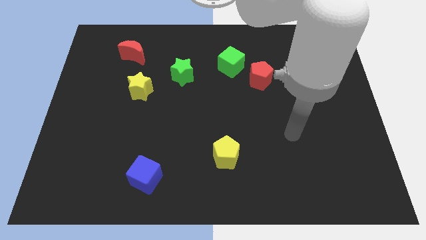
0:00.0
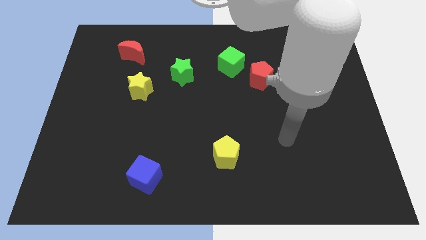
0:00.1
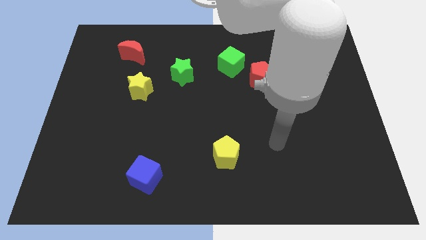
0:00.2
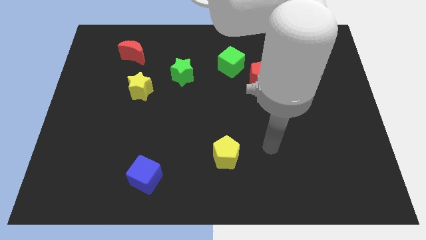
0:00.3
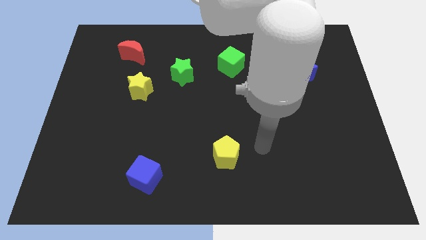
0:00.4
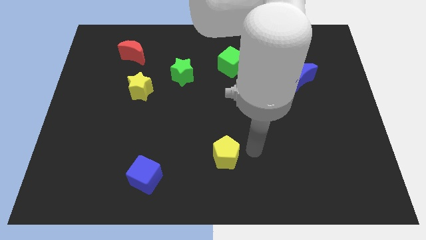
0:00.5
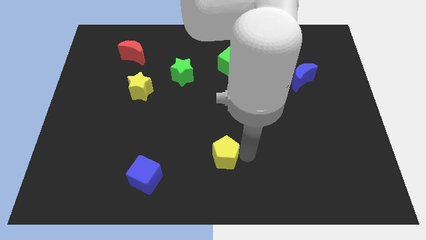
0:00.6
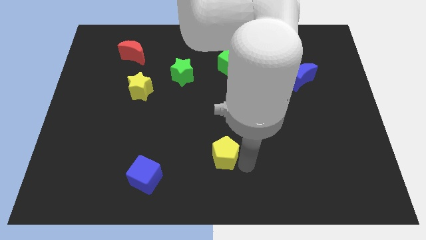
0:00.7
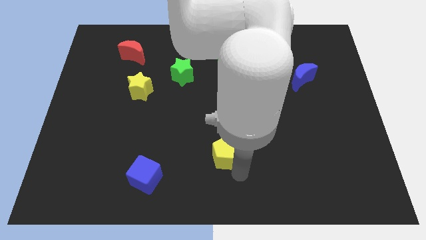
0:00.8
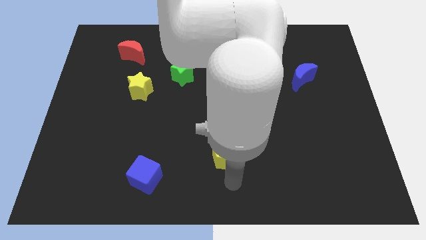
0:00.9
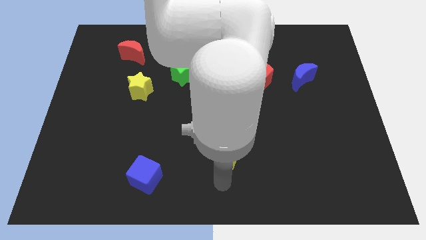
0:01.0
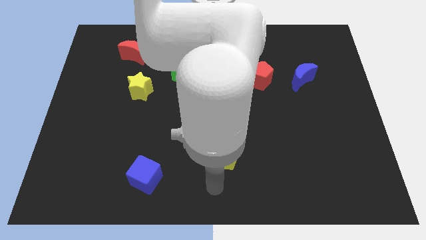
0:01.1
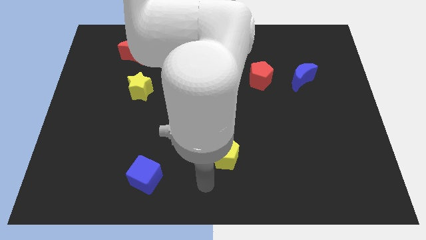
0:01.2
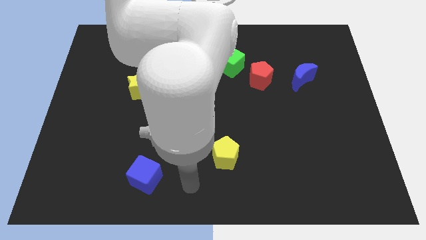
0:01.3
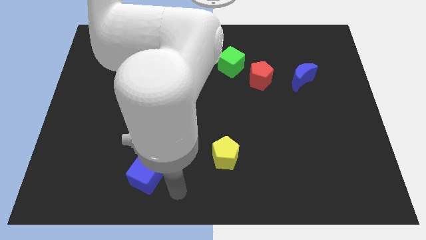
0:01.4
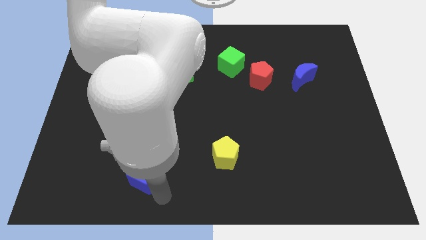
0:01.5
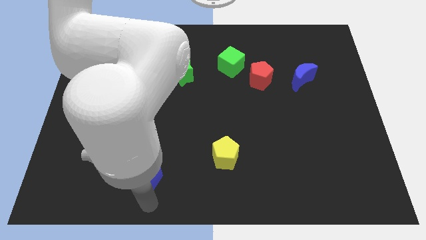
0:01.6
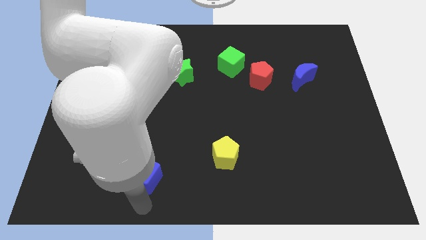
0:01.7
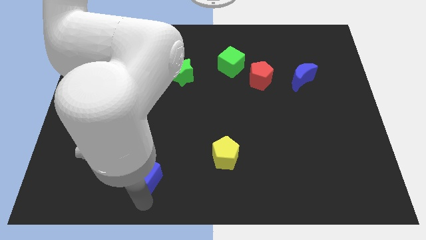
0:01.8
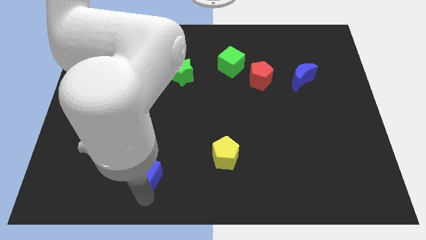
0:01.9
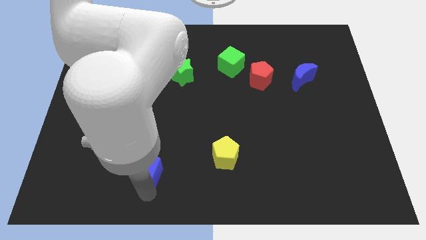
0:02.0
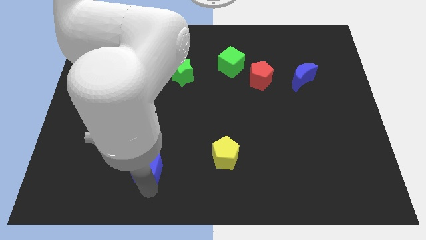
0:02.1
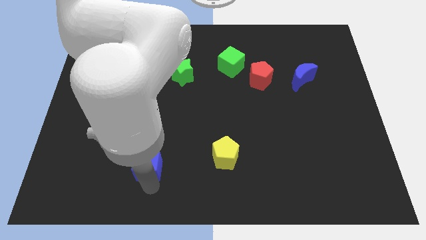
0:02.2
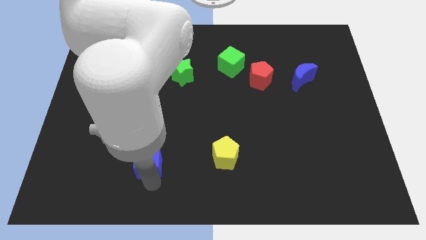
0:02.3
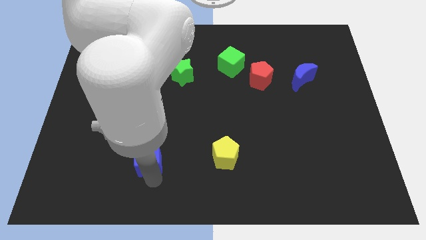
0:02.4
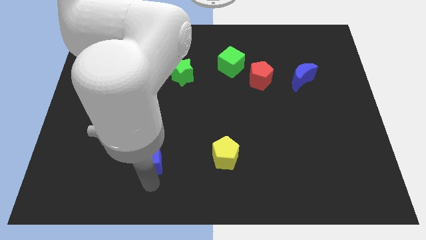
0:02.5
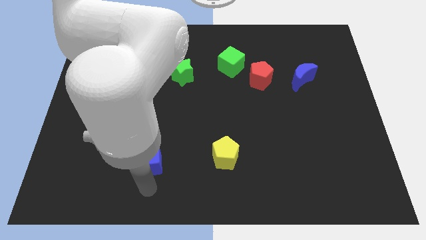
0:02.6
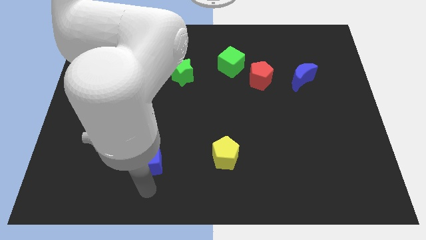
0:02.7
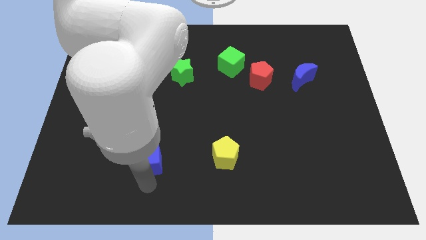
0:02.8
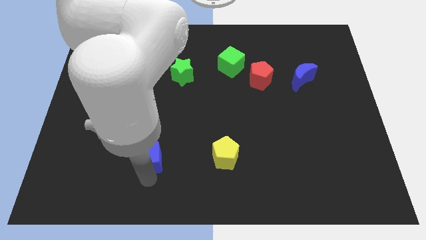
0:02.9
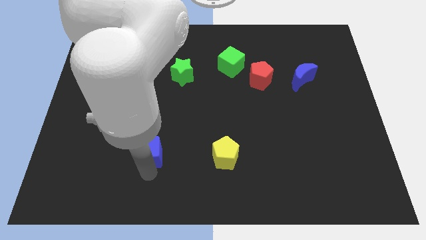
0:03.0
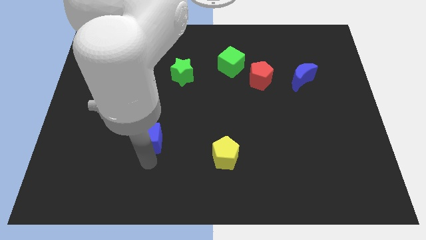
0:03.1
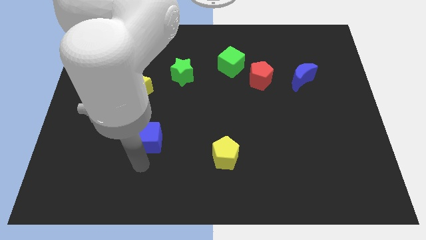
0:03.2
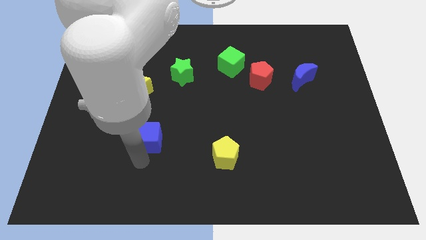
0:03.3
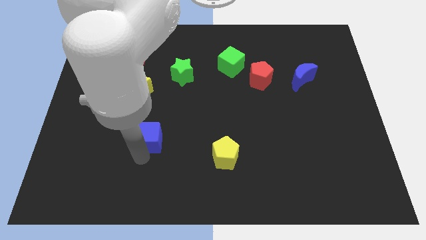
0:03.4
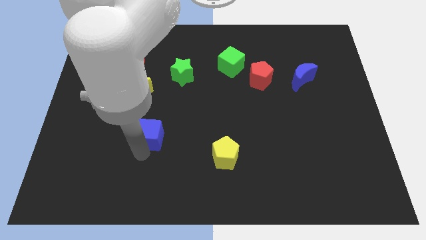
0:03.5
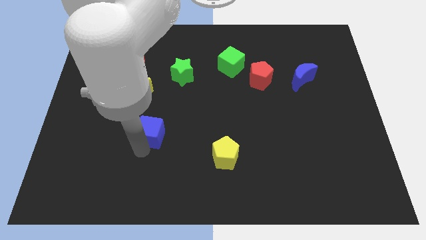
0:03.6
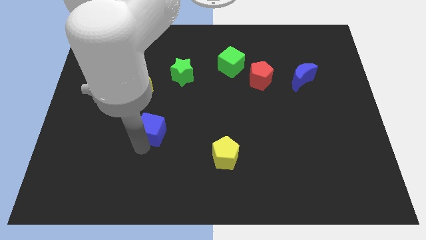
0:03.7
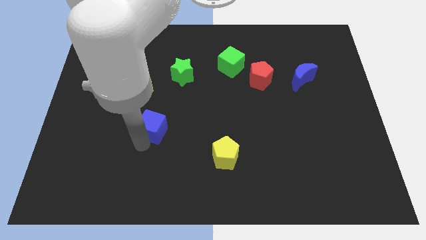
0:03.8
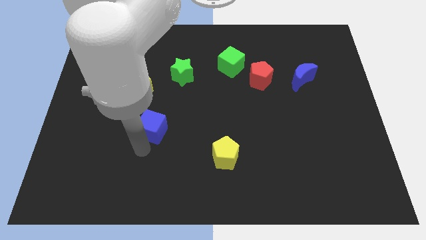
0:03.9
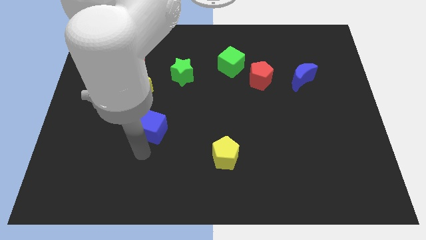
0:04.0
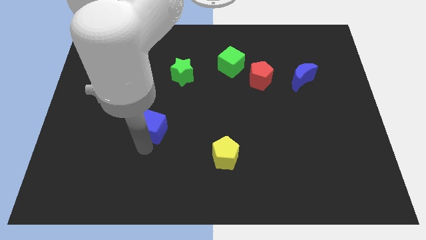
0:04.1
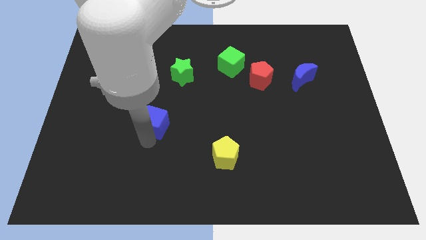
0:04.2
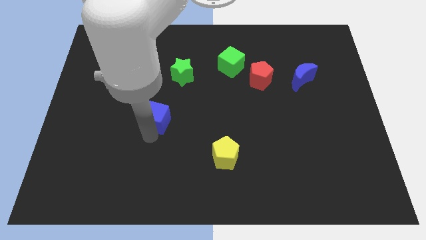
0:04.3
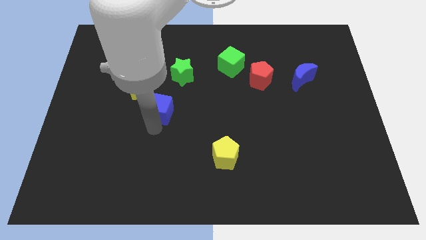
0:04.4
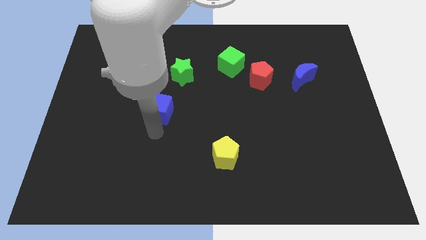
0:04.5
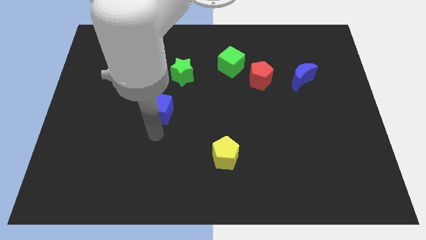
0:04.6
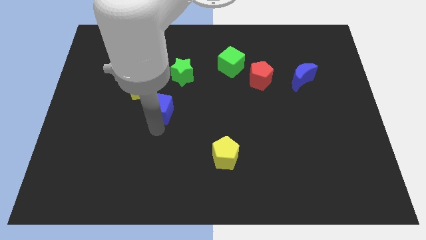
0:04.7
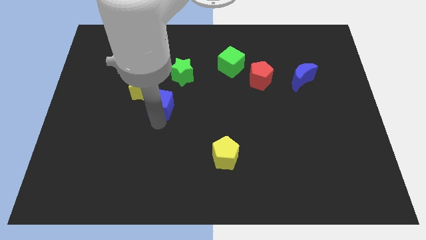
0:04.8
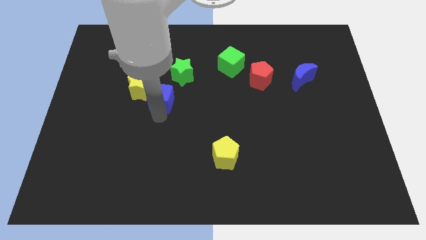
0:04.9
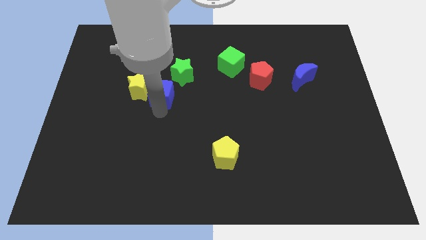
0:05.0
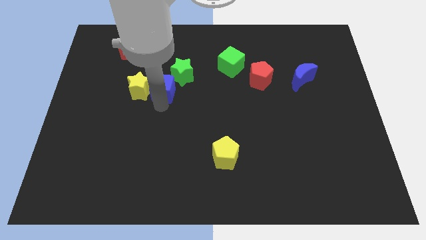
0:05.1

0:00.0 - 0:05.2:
push the blue cube to the top right side of the yellow star

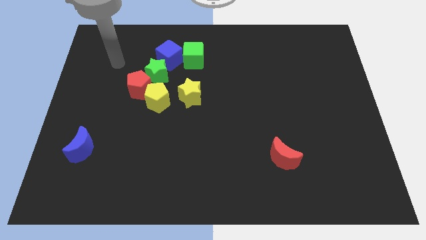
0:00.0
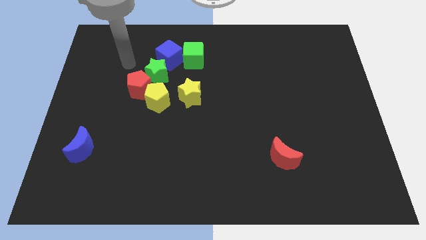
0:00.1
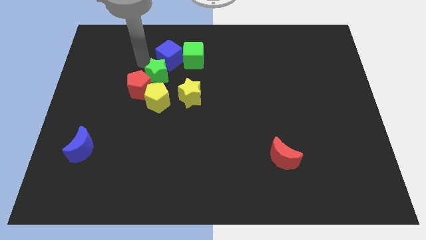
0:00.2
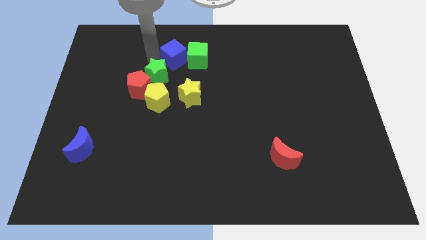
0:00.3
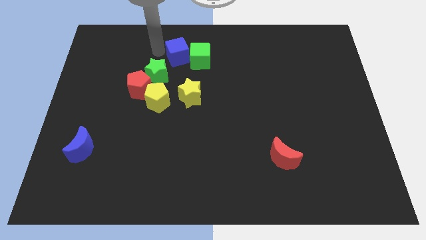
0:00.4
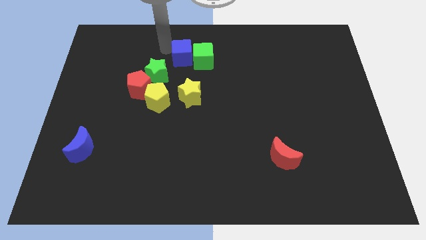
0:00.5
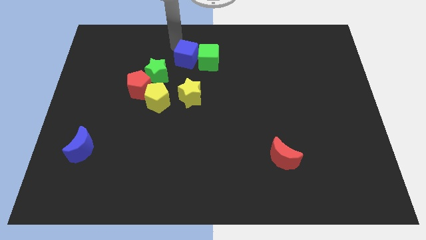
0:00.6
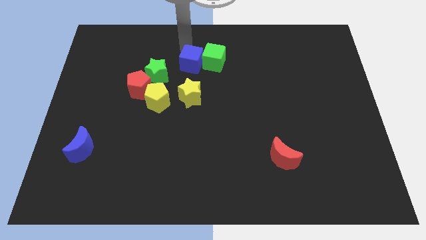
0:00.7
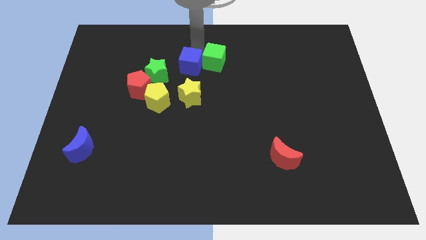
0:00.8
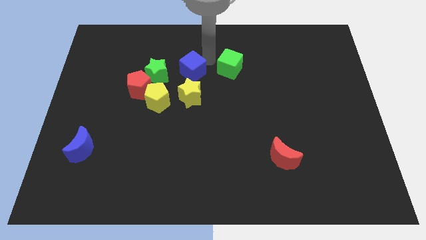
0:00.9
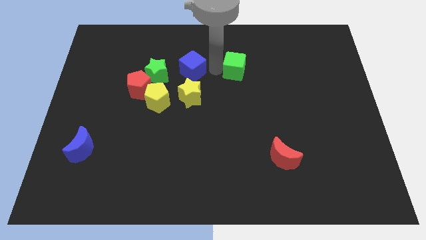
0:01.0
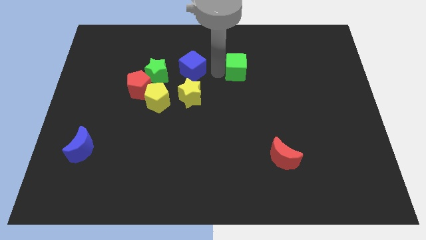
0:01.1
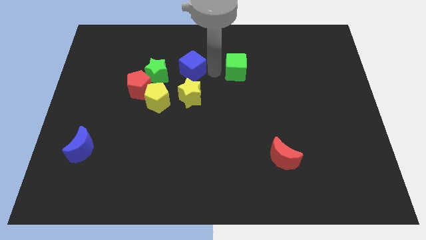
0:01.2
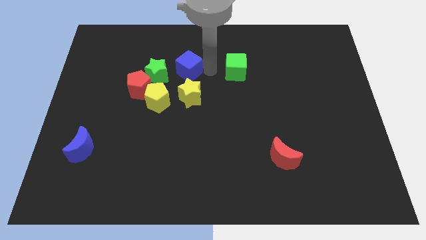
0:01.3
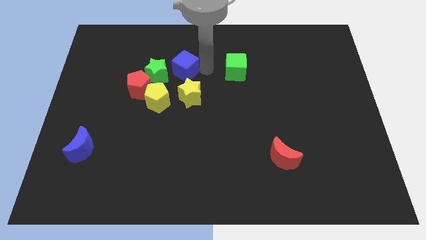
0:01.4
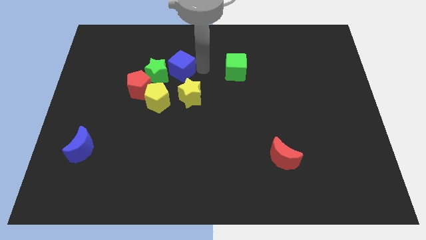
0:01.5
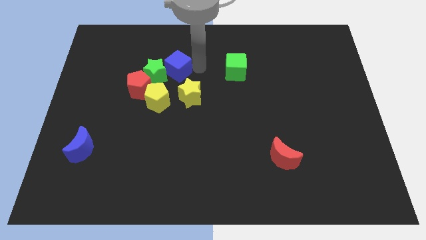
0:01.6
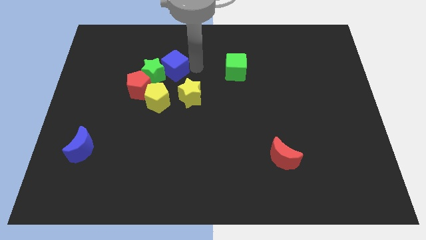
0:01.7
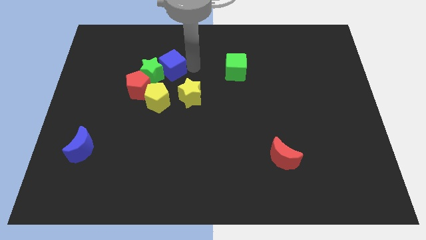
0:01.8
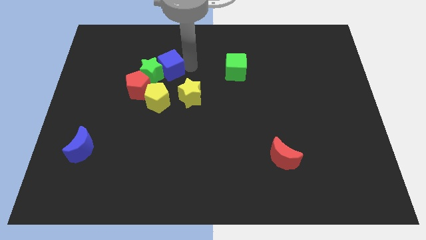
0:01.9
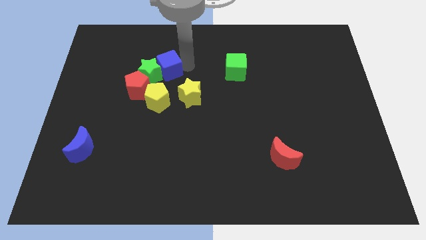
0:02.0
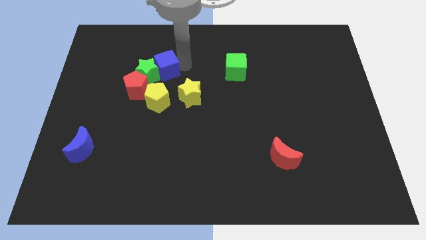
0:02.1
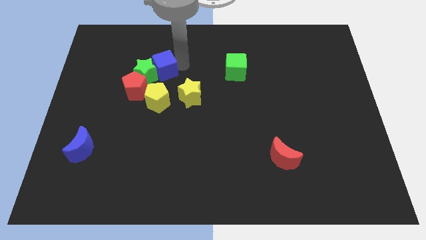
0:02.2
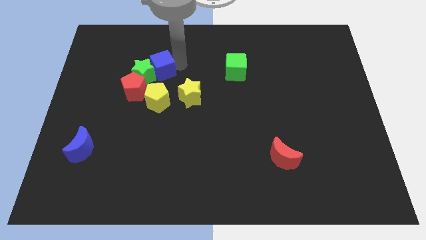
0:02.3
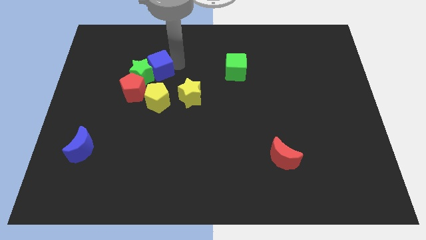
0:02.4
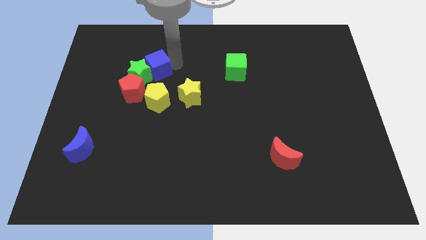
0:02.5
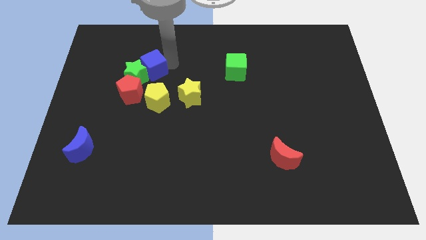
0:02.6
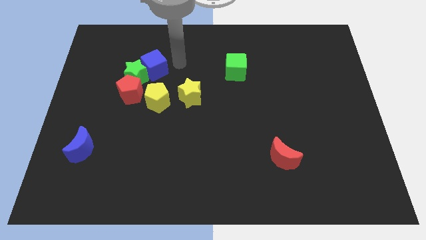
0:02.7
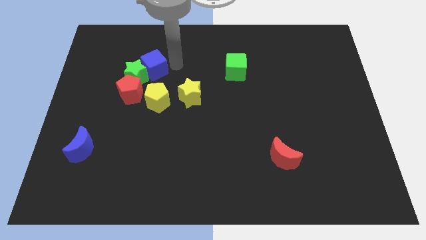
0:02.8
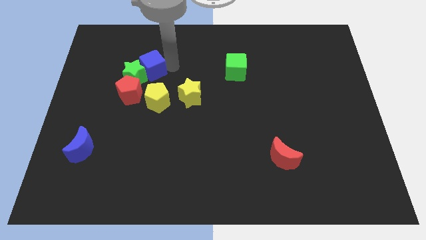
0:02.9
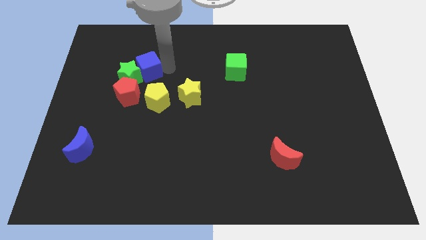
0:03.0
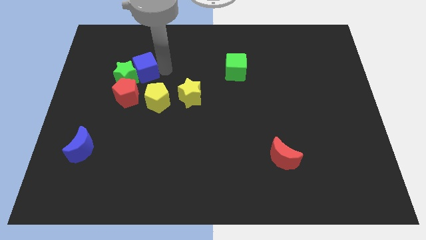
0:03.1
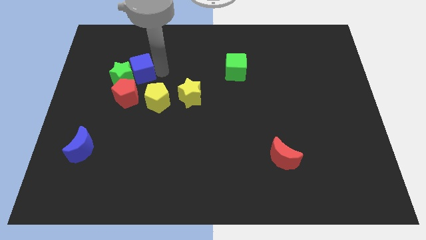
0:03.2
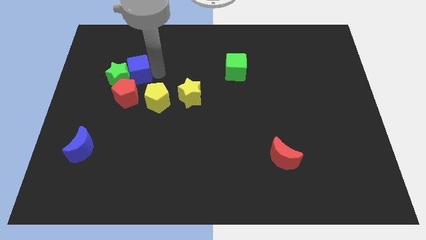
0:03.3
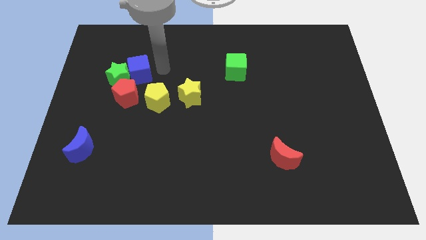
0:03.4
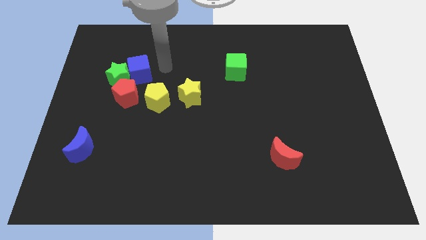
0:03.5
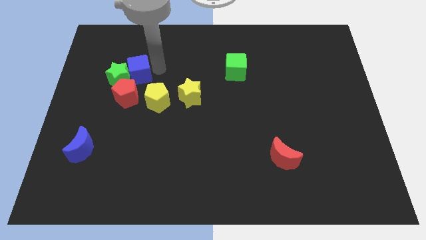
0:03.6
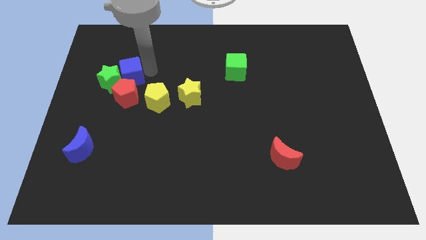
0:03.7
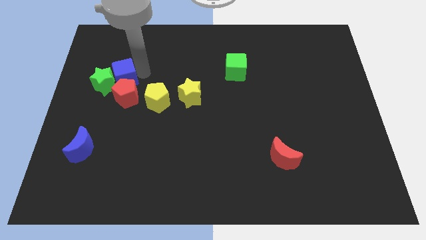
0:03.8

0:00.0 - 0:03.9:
push the blue cube to the top left of the red pentagon
